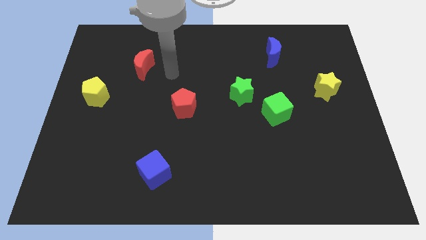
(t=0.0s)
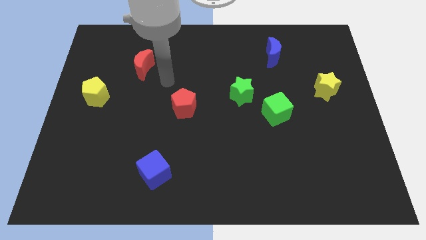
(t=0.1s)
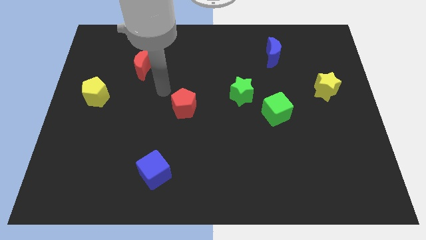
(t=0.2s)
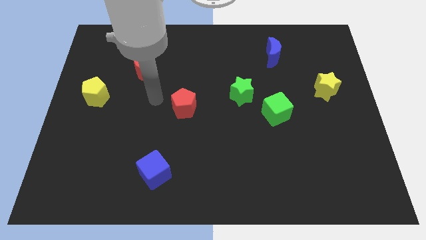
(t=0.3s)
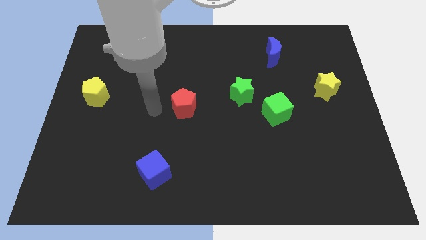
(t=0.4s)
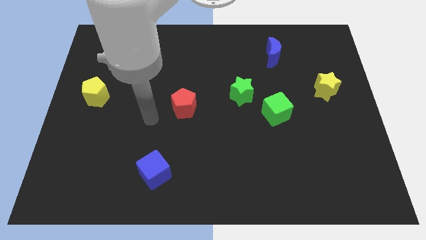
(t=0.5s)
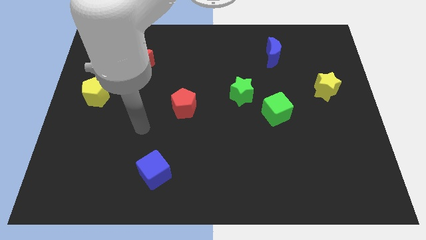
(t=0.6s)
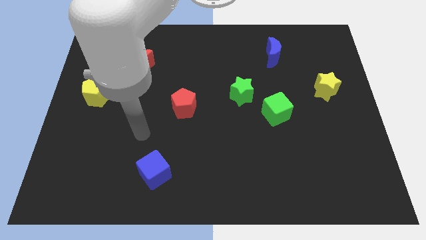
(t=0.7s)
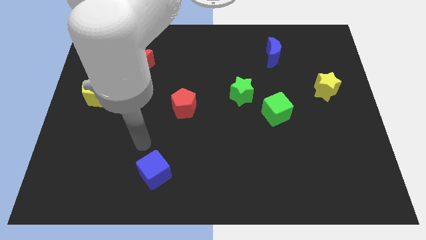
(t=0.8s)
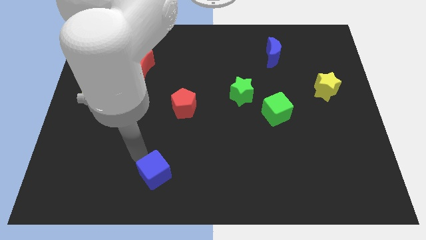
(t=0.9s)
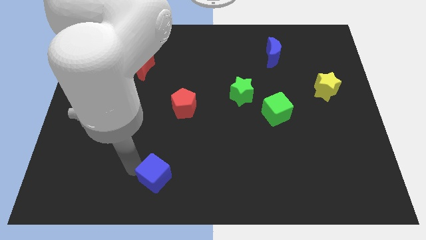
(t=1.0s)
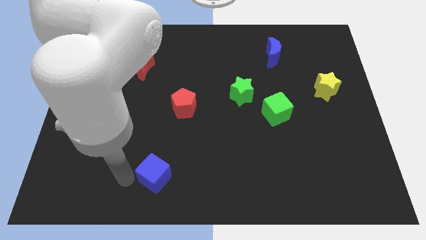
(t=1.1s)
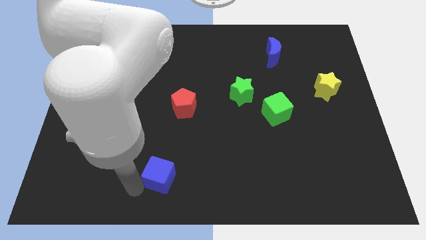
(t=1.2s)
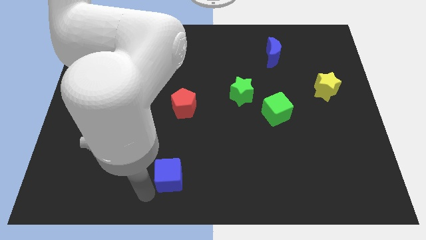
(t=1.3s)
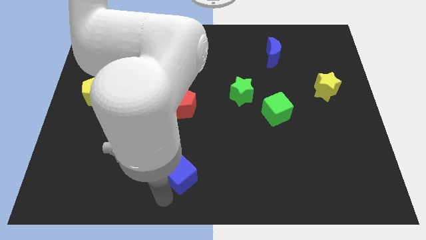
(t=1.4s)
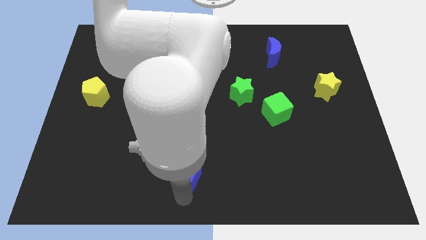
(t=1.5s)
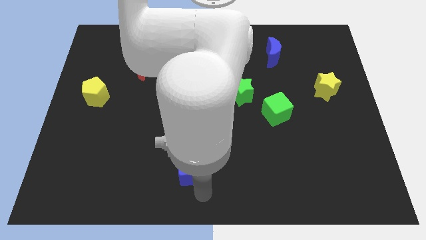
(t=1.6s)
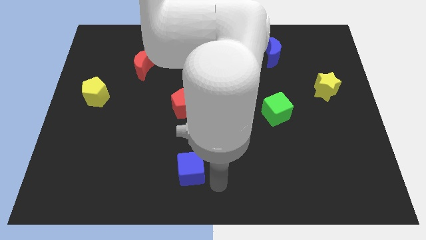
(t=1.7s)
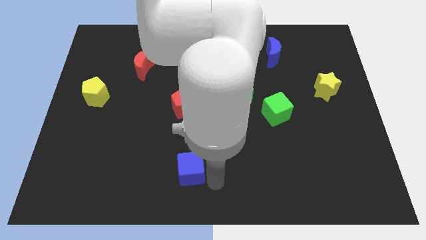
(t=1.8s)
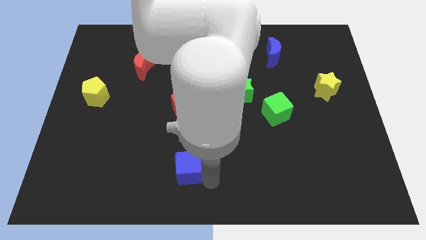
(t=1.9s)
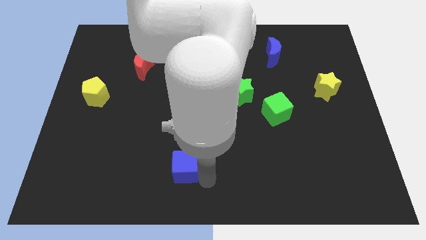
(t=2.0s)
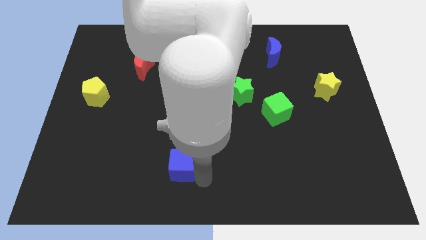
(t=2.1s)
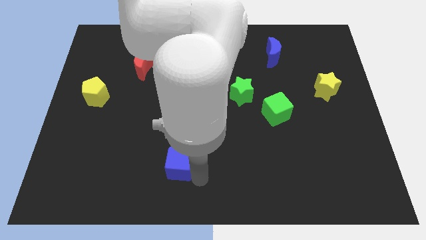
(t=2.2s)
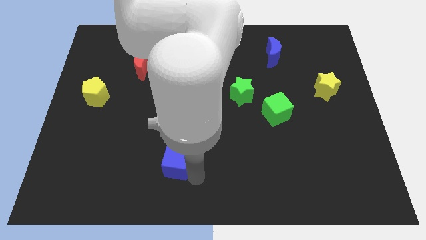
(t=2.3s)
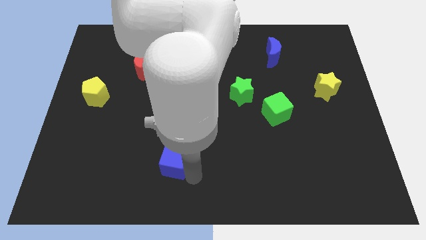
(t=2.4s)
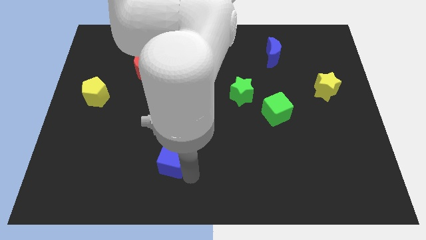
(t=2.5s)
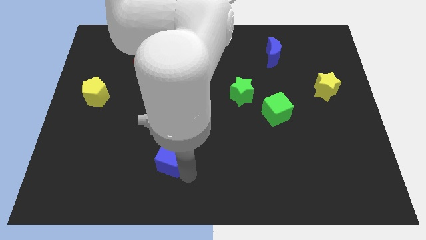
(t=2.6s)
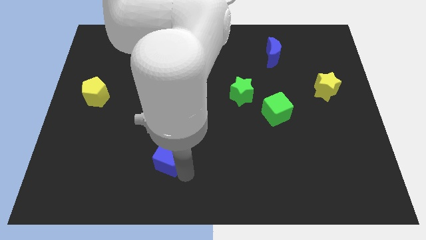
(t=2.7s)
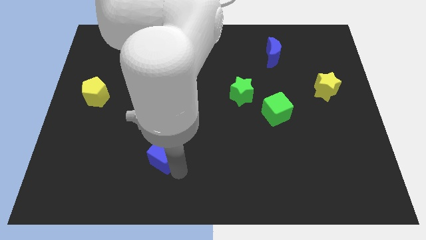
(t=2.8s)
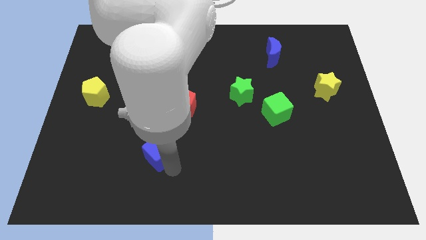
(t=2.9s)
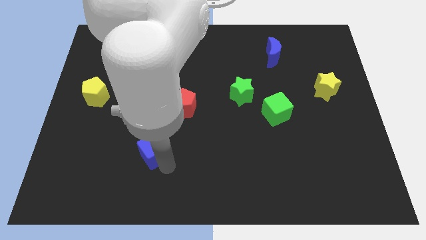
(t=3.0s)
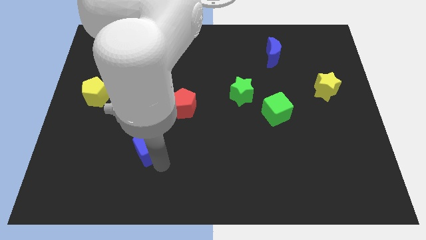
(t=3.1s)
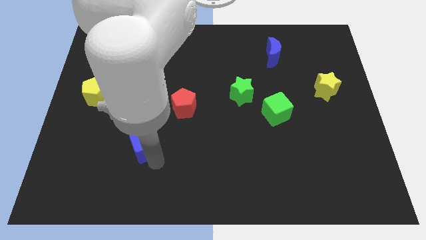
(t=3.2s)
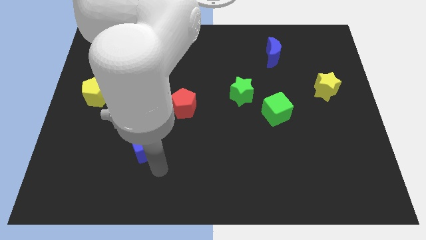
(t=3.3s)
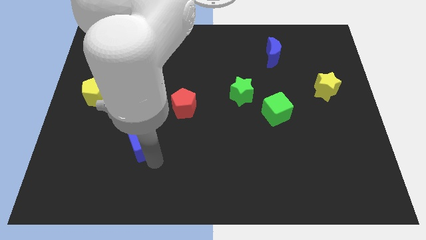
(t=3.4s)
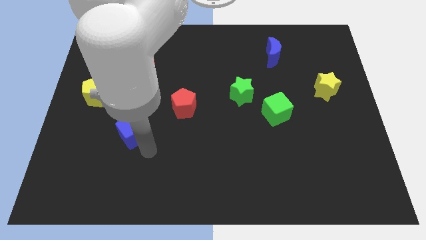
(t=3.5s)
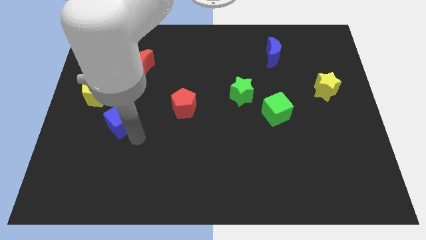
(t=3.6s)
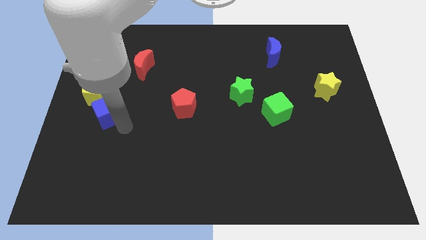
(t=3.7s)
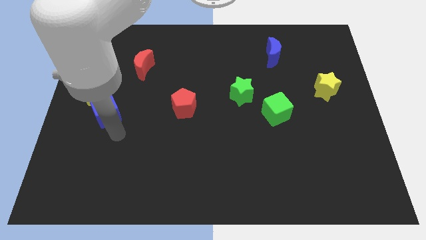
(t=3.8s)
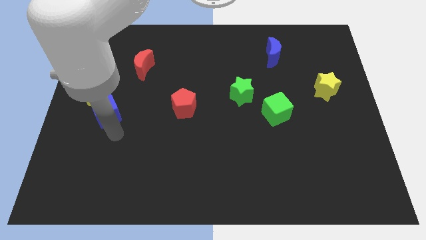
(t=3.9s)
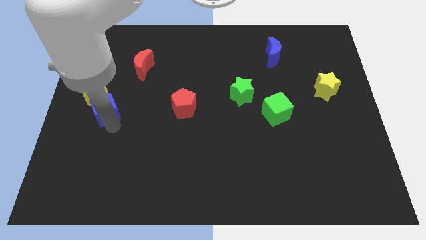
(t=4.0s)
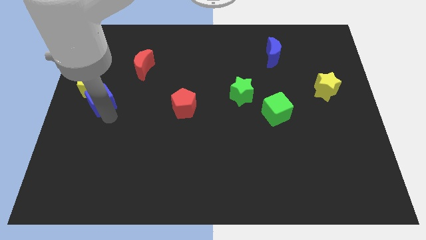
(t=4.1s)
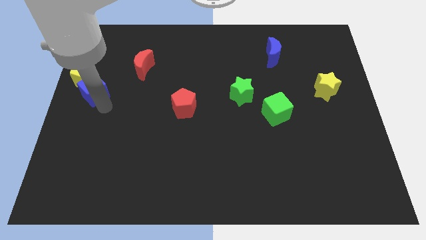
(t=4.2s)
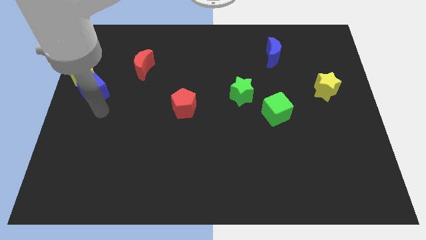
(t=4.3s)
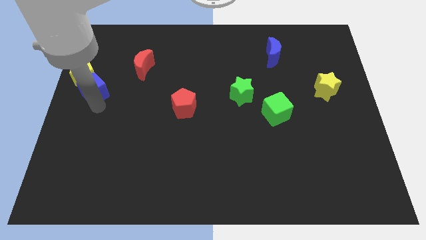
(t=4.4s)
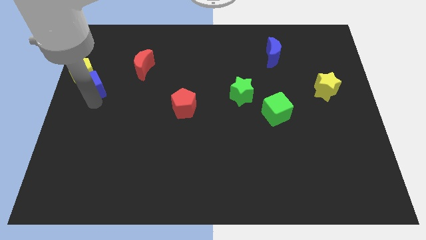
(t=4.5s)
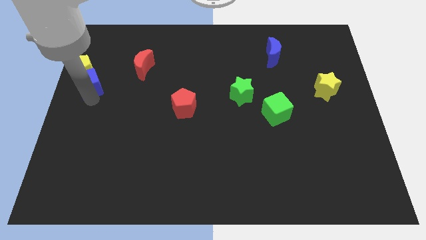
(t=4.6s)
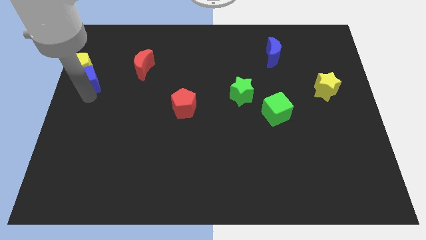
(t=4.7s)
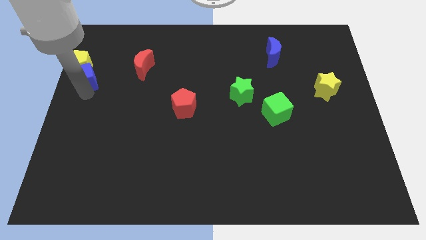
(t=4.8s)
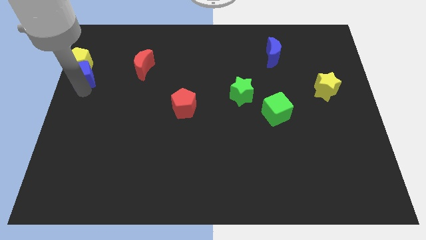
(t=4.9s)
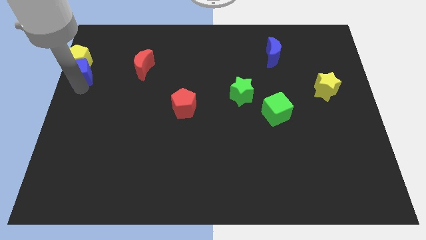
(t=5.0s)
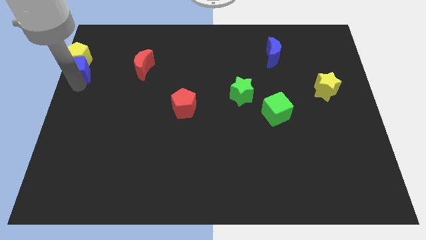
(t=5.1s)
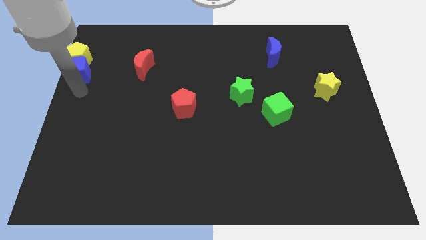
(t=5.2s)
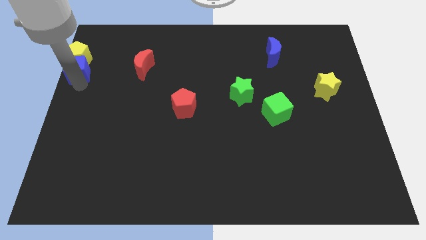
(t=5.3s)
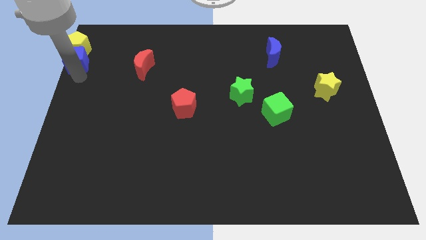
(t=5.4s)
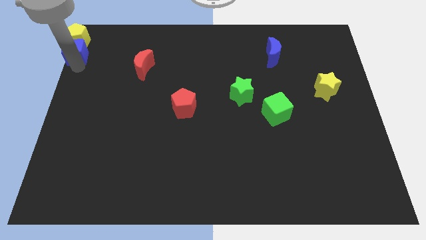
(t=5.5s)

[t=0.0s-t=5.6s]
move the blue cube to the top left of the board

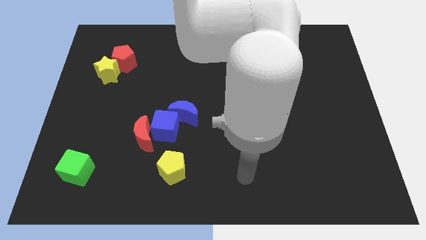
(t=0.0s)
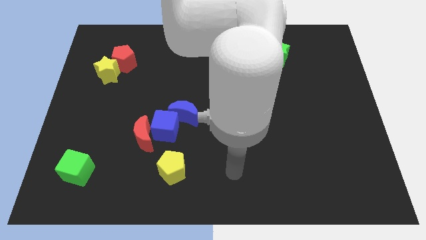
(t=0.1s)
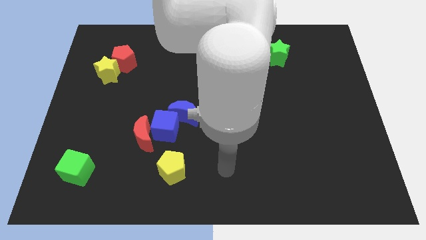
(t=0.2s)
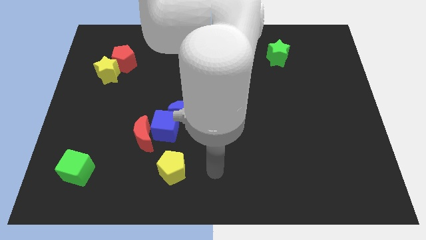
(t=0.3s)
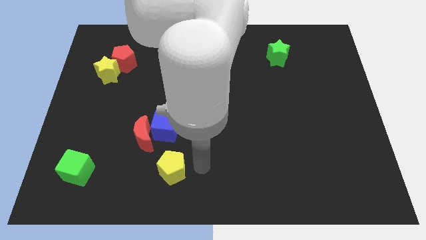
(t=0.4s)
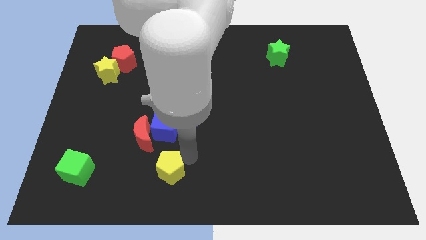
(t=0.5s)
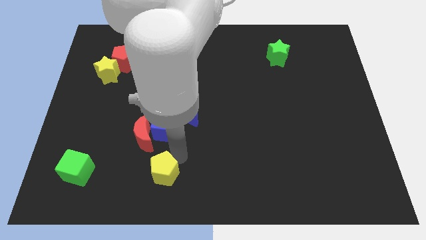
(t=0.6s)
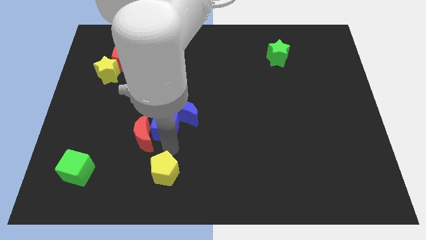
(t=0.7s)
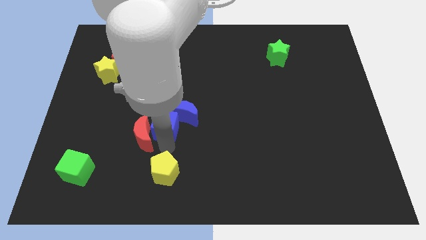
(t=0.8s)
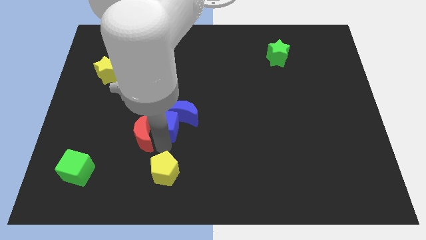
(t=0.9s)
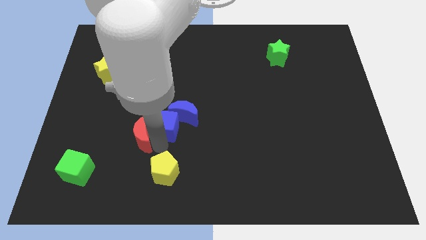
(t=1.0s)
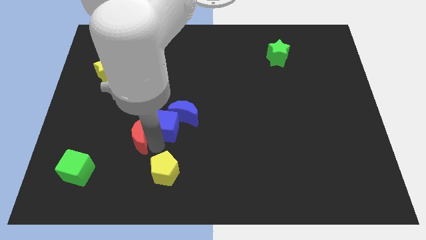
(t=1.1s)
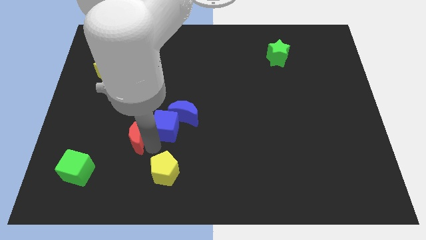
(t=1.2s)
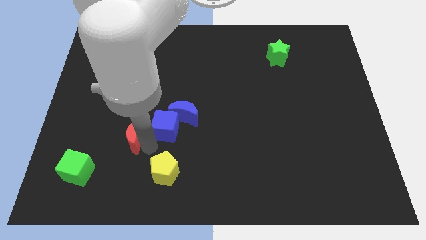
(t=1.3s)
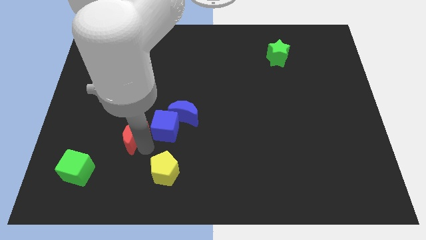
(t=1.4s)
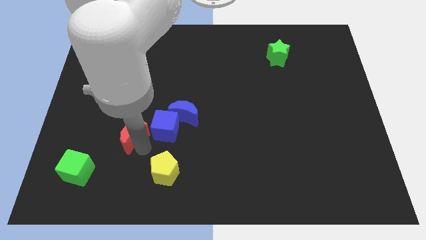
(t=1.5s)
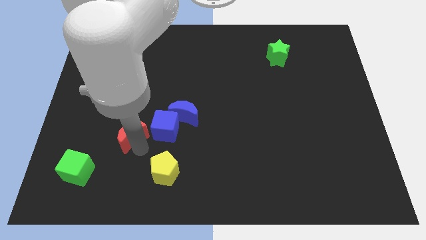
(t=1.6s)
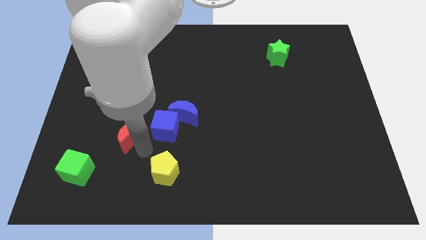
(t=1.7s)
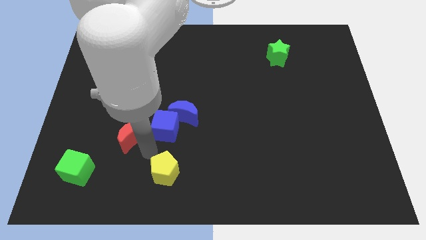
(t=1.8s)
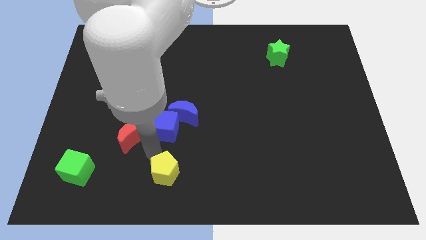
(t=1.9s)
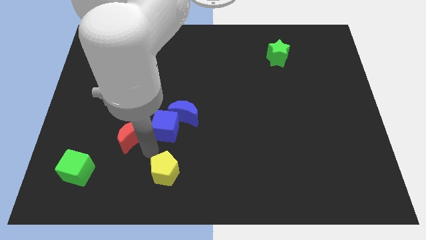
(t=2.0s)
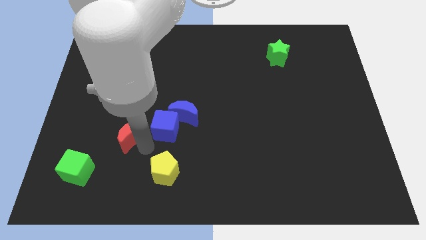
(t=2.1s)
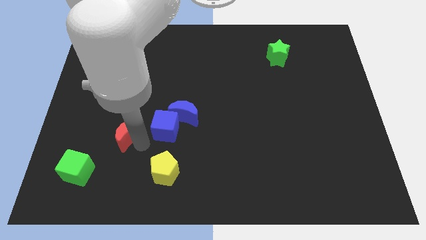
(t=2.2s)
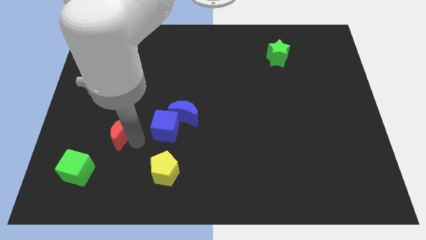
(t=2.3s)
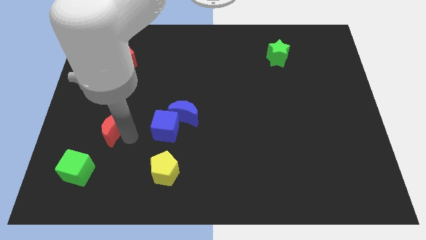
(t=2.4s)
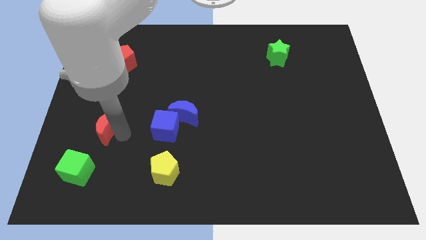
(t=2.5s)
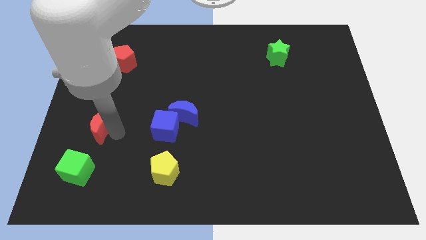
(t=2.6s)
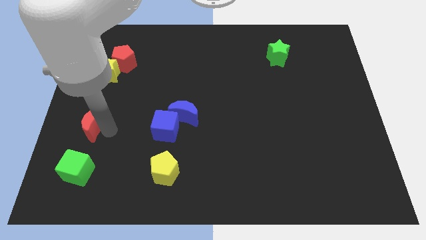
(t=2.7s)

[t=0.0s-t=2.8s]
move the red moon to the center left
